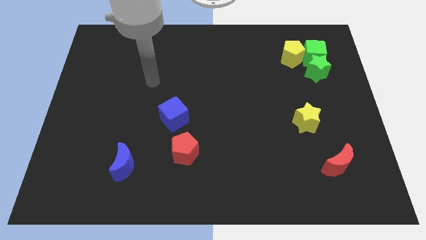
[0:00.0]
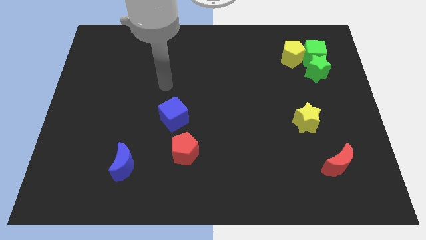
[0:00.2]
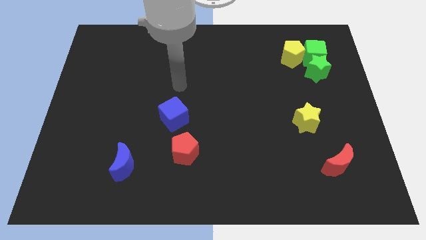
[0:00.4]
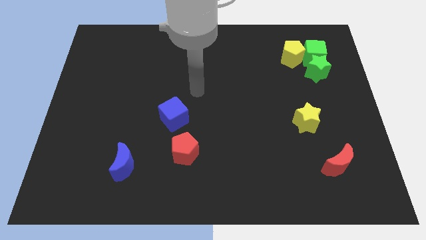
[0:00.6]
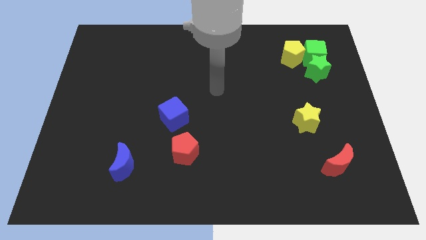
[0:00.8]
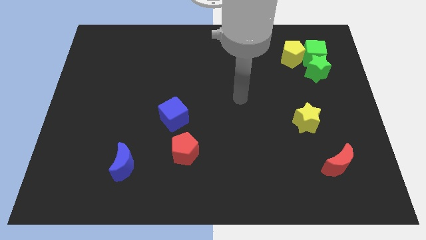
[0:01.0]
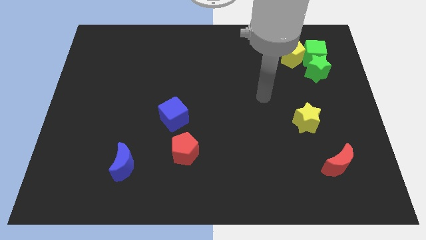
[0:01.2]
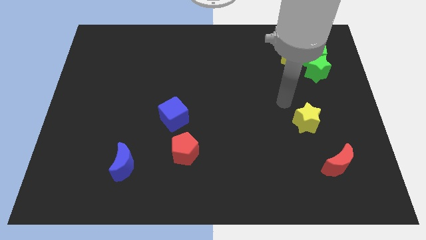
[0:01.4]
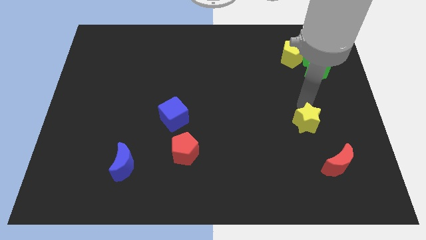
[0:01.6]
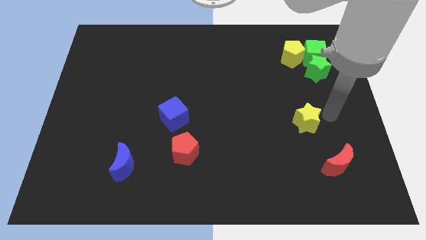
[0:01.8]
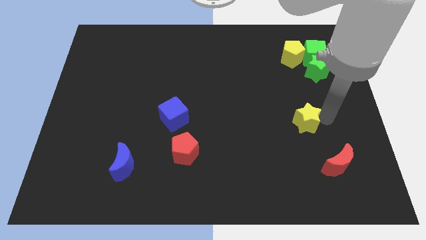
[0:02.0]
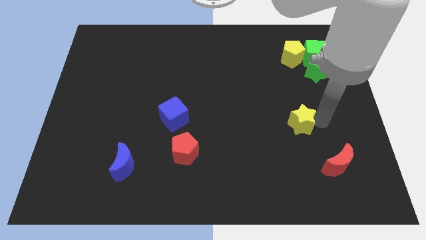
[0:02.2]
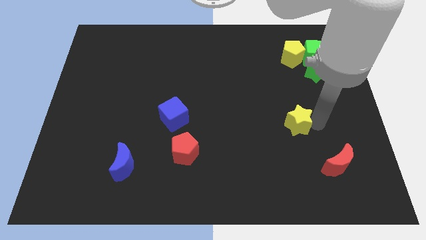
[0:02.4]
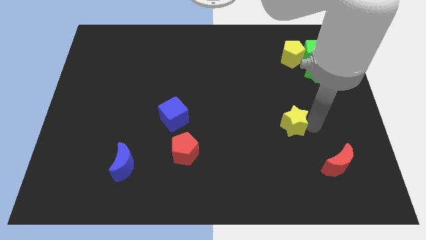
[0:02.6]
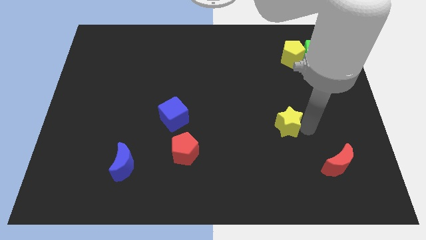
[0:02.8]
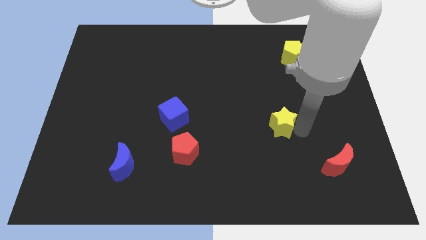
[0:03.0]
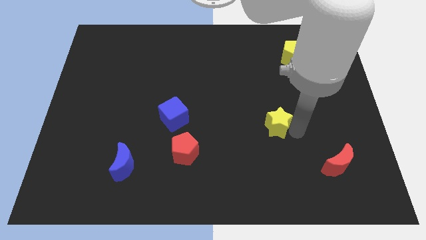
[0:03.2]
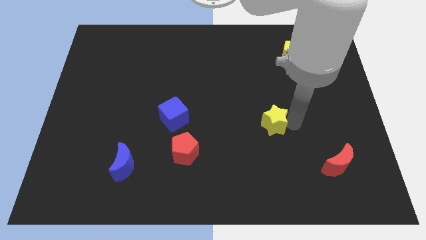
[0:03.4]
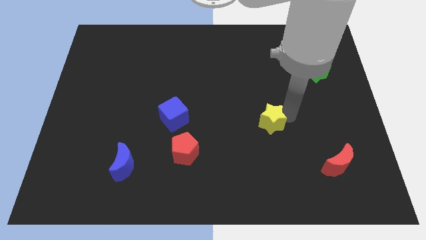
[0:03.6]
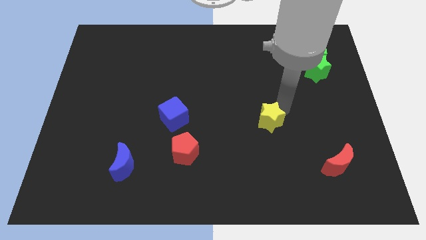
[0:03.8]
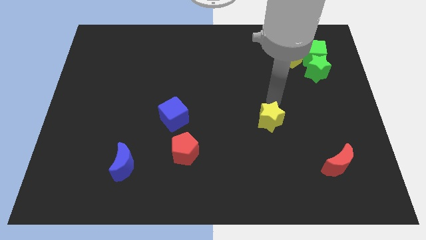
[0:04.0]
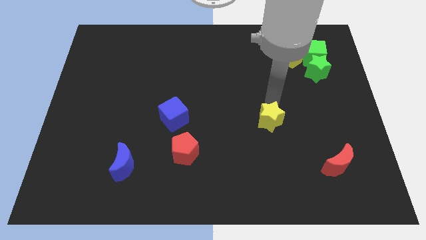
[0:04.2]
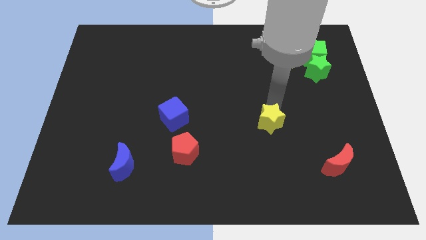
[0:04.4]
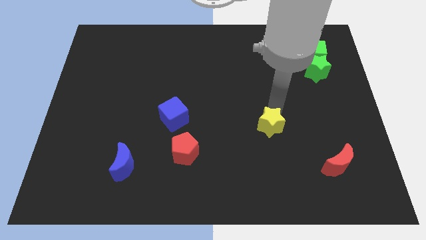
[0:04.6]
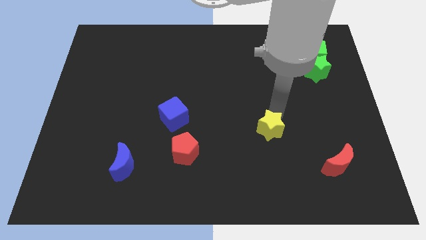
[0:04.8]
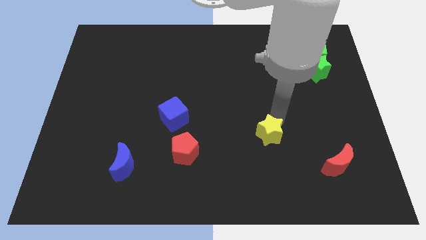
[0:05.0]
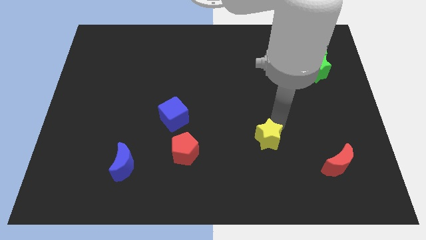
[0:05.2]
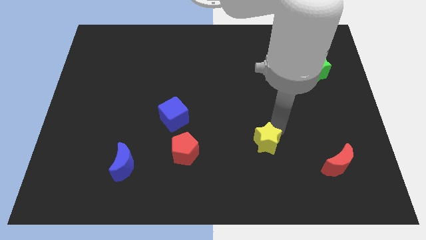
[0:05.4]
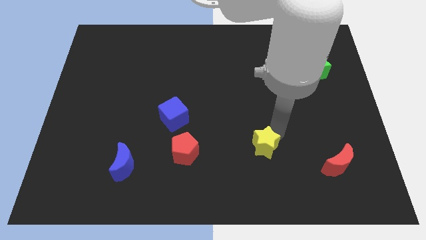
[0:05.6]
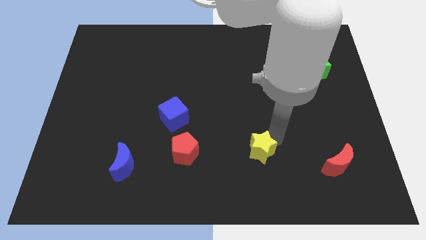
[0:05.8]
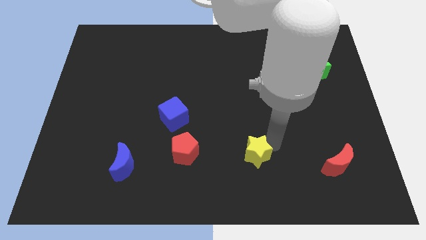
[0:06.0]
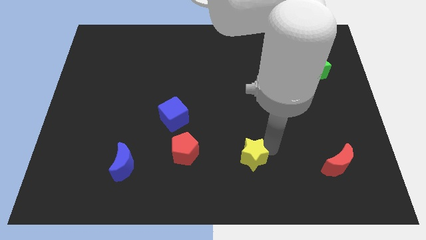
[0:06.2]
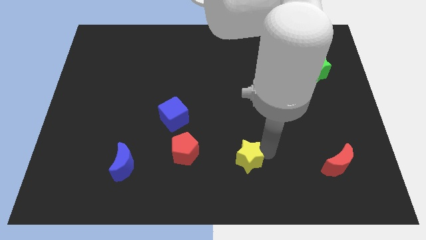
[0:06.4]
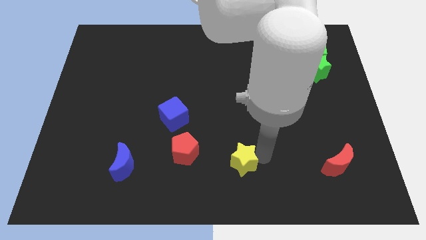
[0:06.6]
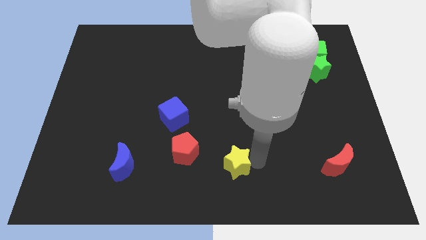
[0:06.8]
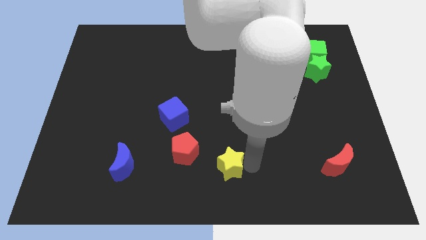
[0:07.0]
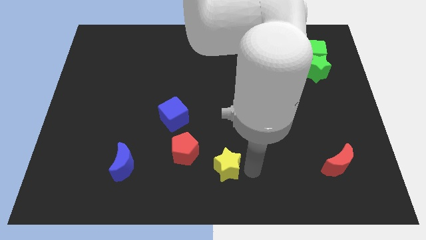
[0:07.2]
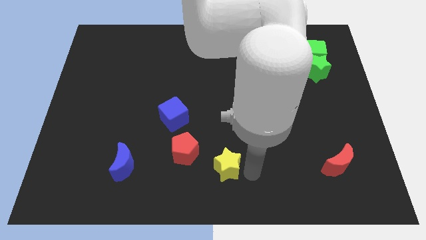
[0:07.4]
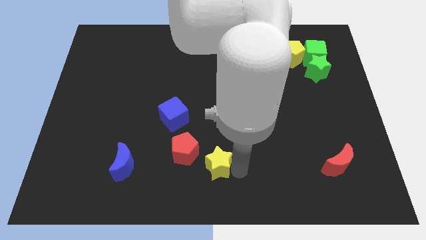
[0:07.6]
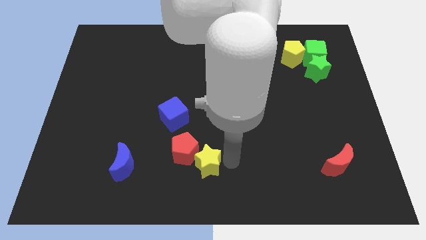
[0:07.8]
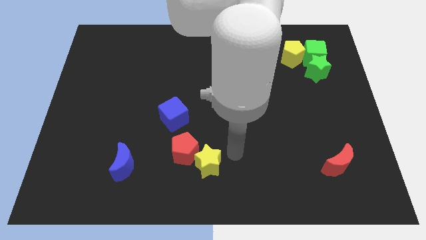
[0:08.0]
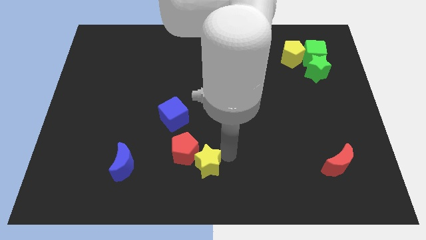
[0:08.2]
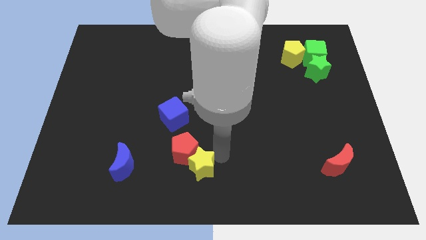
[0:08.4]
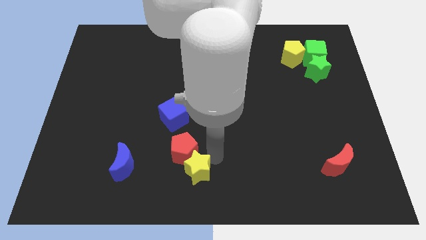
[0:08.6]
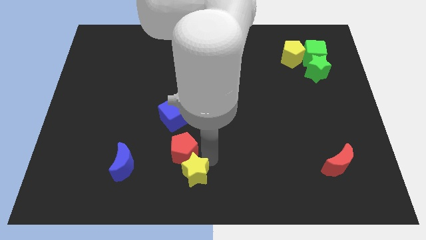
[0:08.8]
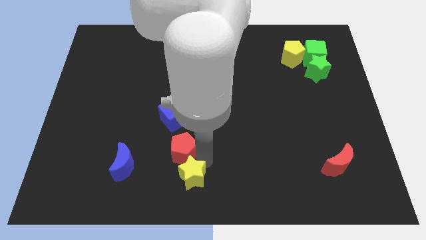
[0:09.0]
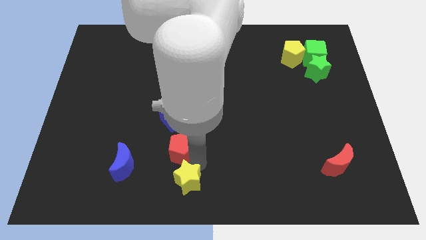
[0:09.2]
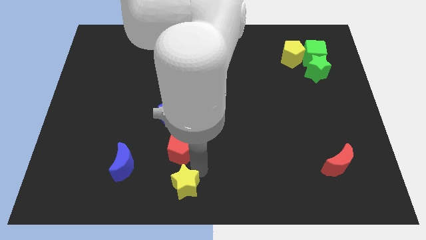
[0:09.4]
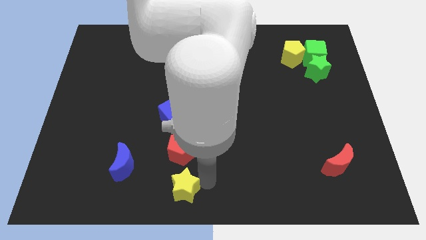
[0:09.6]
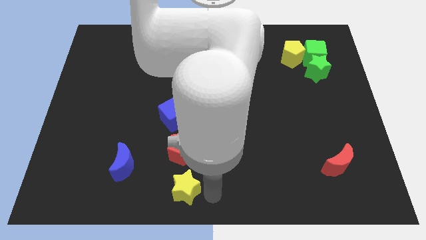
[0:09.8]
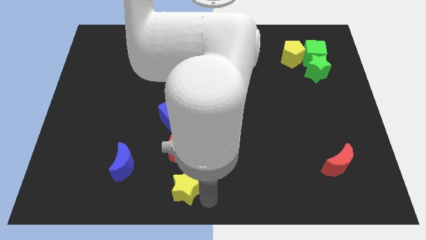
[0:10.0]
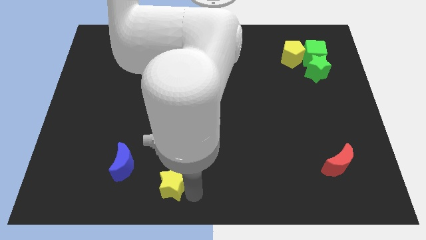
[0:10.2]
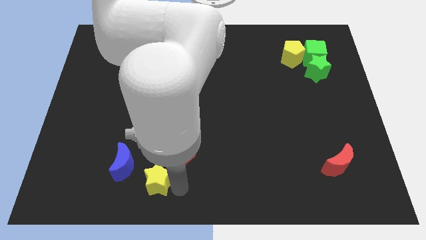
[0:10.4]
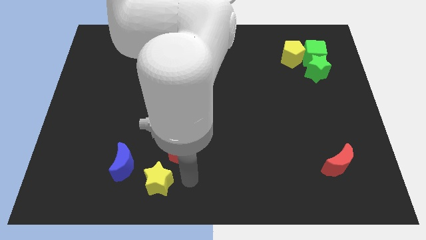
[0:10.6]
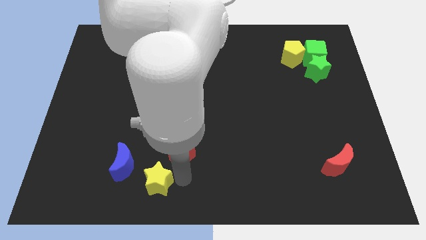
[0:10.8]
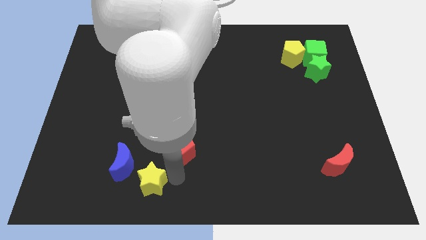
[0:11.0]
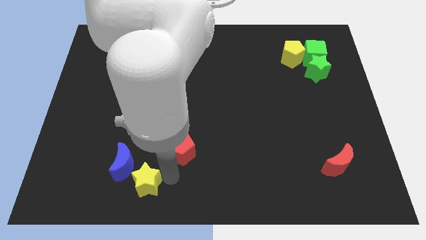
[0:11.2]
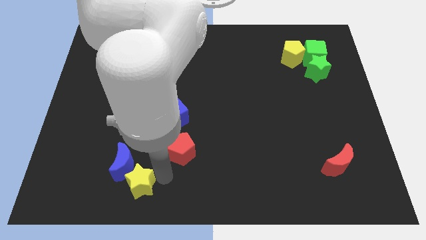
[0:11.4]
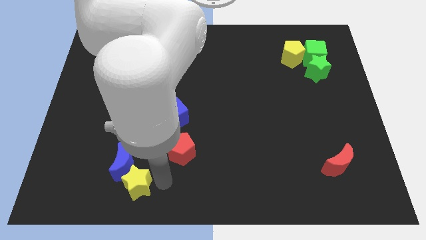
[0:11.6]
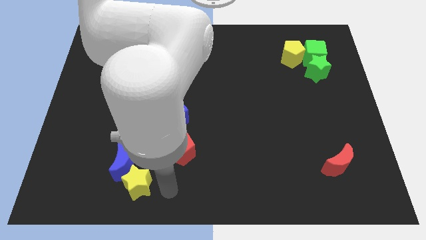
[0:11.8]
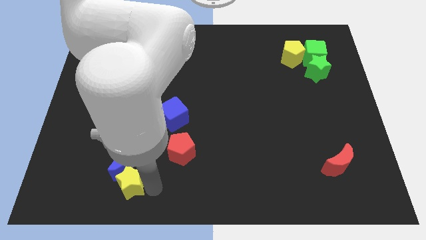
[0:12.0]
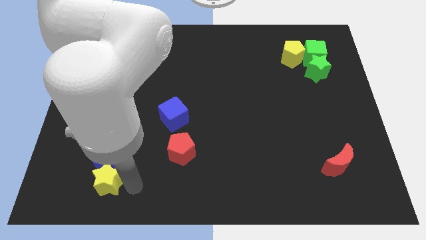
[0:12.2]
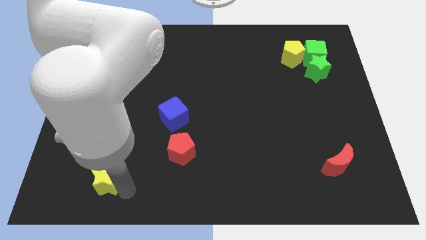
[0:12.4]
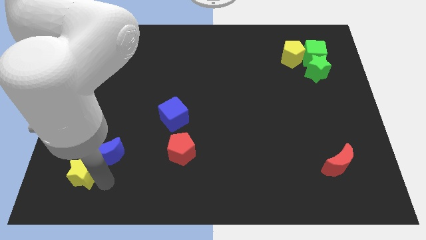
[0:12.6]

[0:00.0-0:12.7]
move the yellow star left of the blue moon

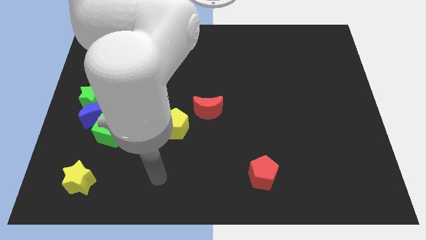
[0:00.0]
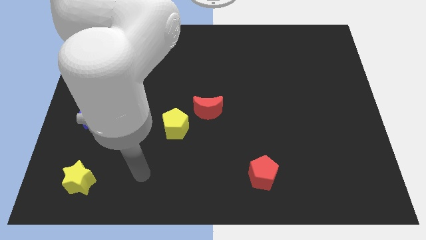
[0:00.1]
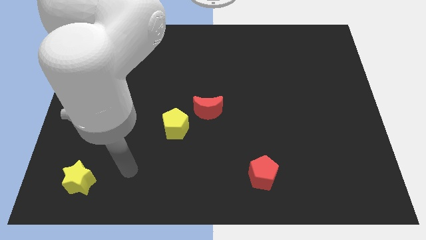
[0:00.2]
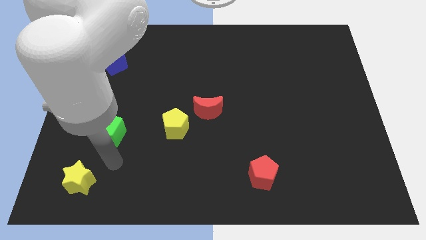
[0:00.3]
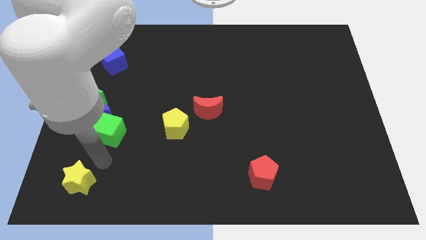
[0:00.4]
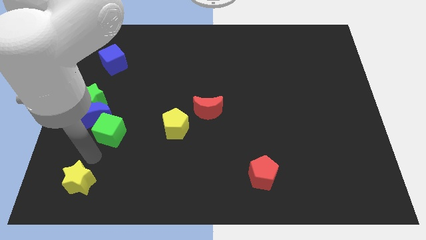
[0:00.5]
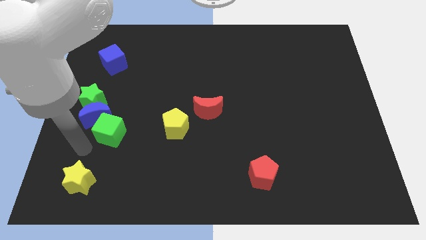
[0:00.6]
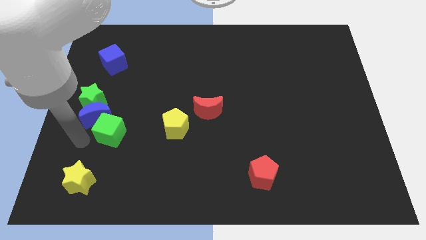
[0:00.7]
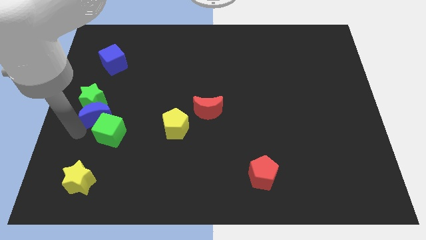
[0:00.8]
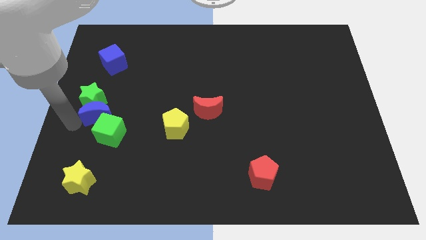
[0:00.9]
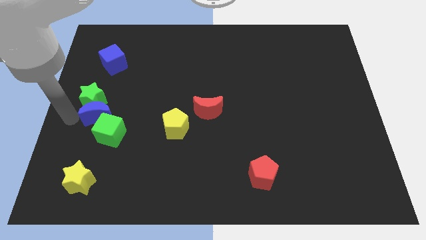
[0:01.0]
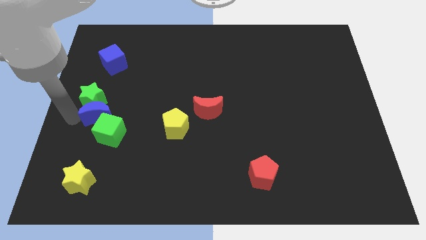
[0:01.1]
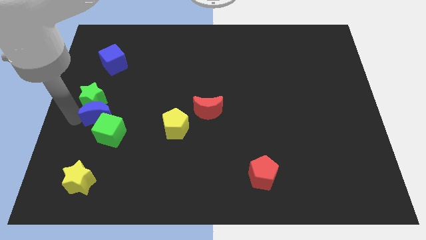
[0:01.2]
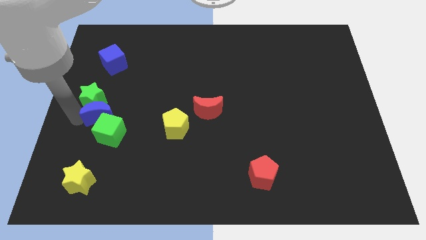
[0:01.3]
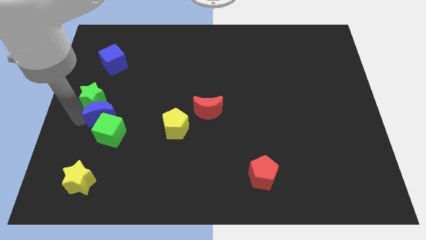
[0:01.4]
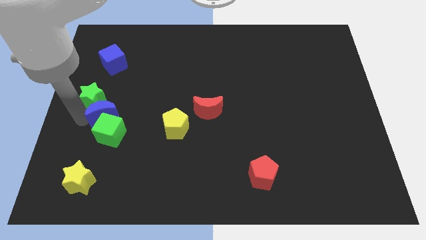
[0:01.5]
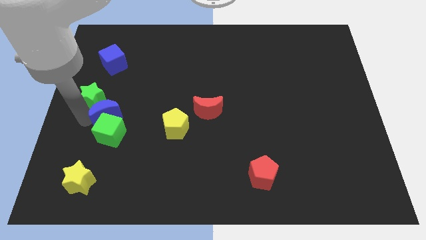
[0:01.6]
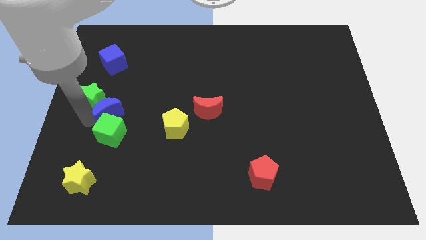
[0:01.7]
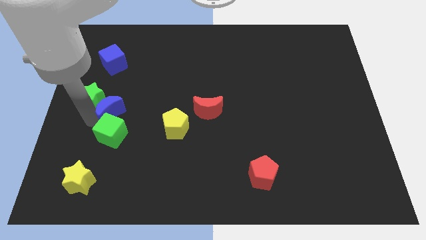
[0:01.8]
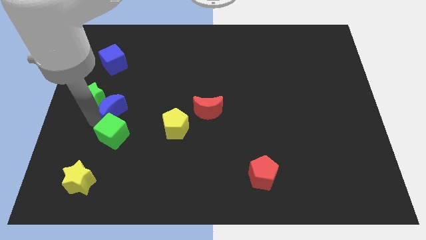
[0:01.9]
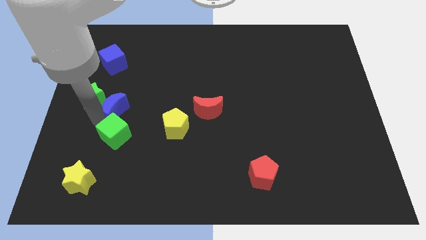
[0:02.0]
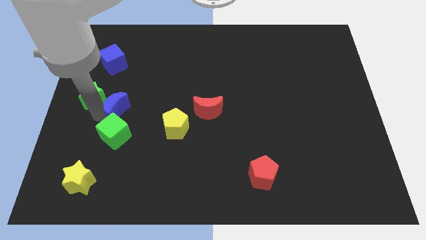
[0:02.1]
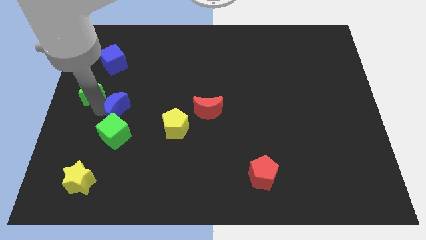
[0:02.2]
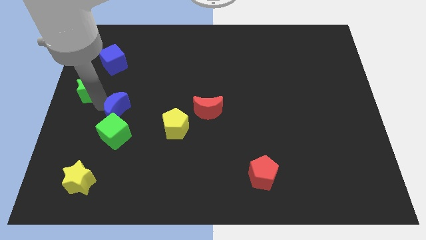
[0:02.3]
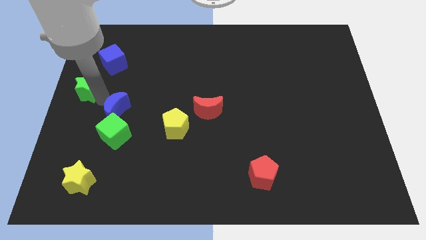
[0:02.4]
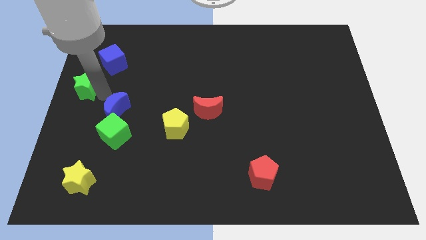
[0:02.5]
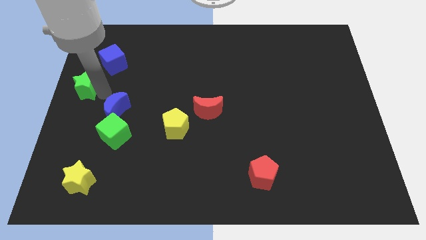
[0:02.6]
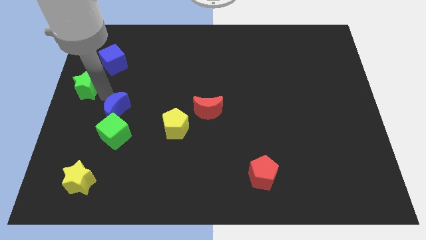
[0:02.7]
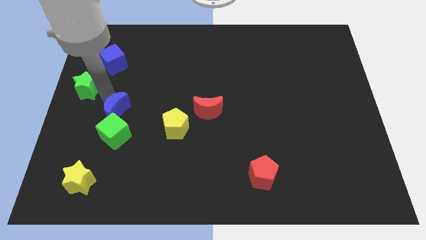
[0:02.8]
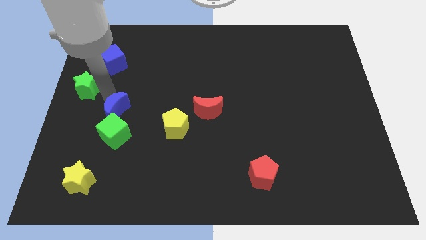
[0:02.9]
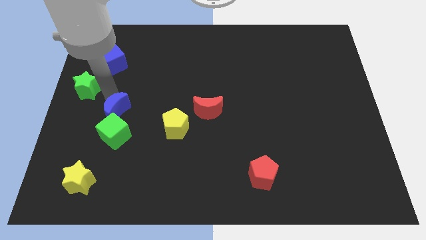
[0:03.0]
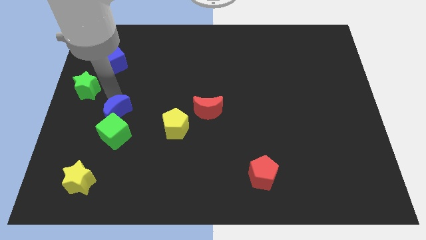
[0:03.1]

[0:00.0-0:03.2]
push the blue moon just left of the yellow pentagon
